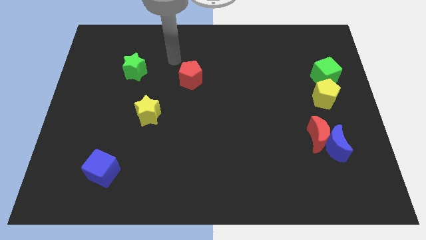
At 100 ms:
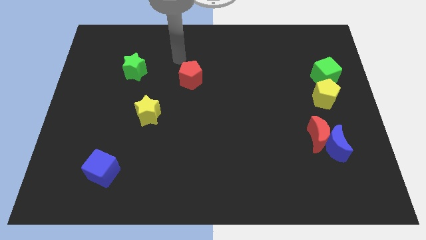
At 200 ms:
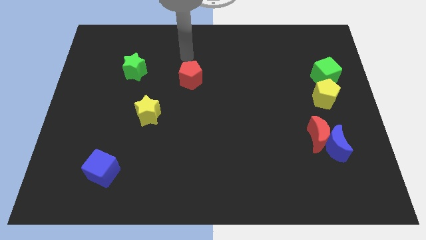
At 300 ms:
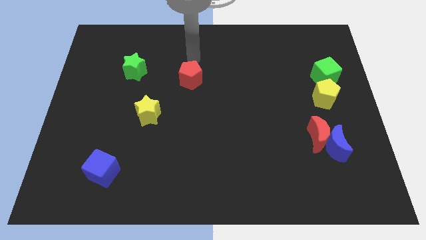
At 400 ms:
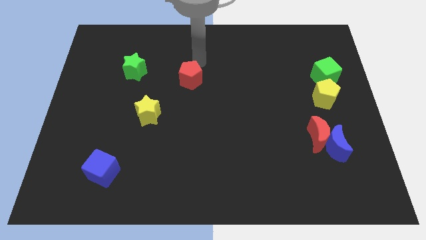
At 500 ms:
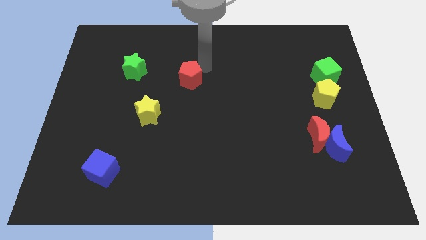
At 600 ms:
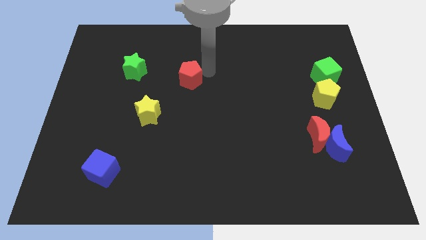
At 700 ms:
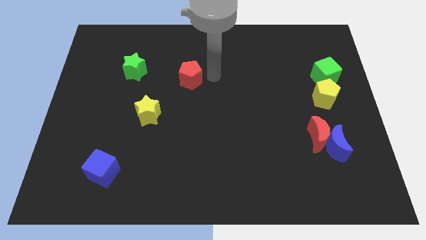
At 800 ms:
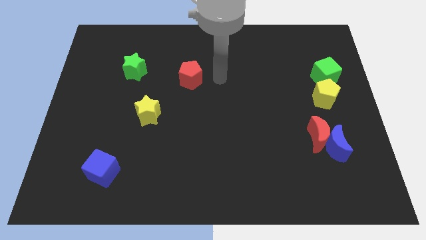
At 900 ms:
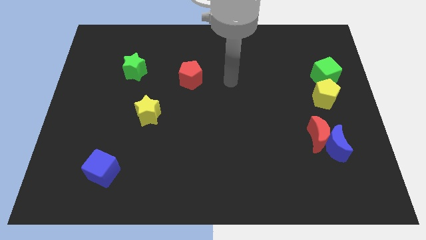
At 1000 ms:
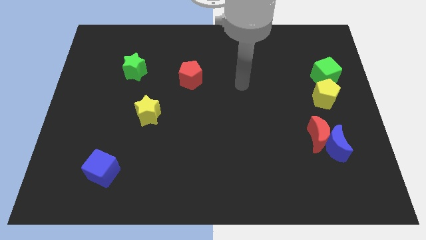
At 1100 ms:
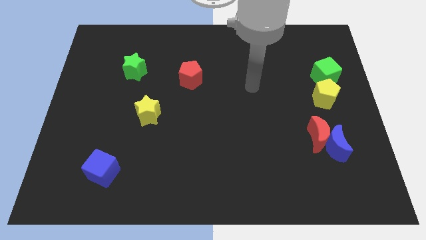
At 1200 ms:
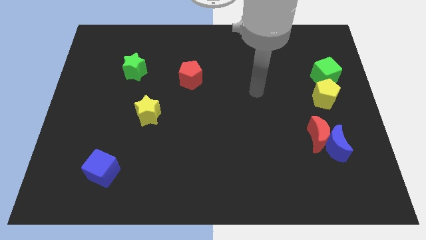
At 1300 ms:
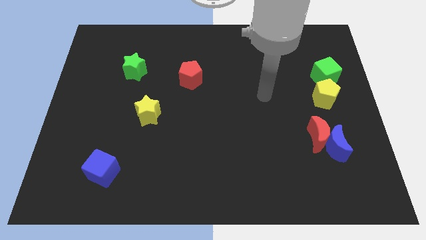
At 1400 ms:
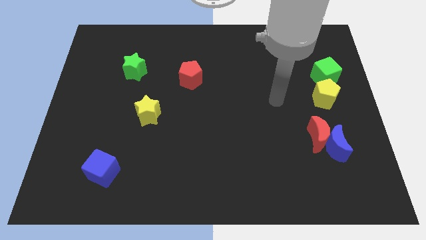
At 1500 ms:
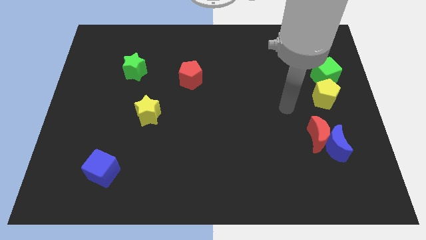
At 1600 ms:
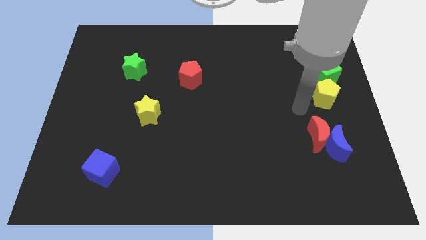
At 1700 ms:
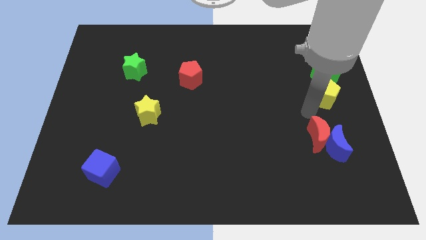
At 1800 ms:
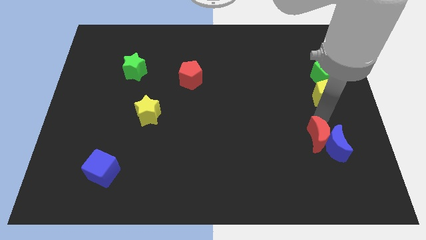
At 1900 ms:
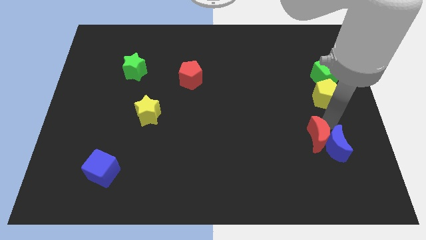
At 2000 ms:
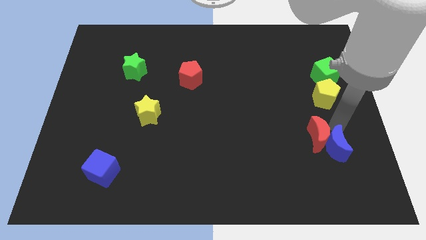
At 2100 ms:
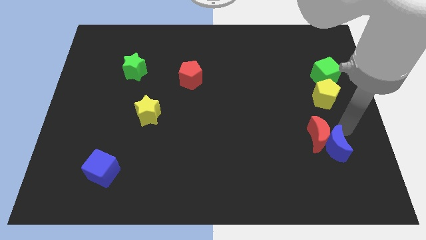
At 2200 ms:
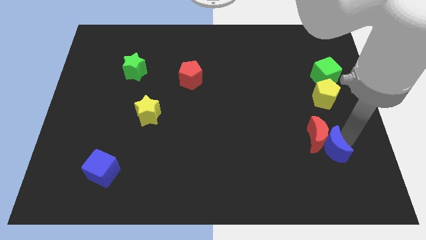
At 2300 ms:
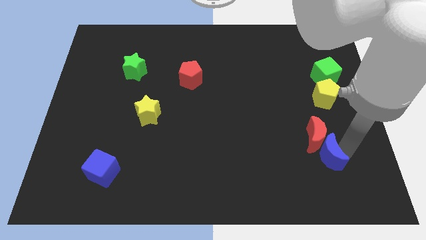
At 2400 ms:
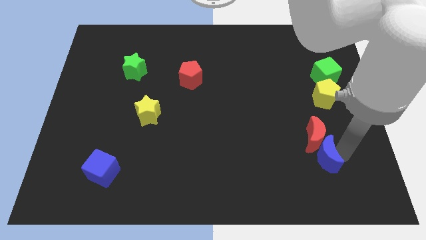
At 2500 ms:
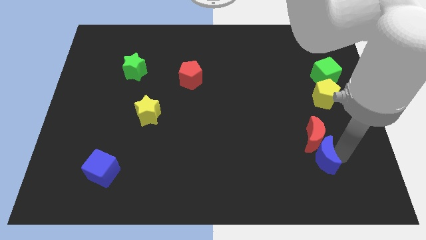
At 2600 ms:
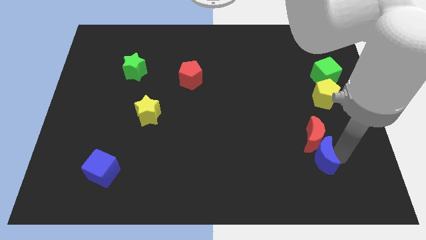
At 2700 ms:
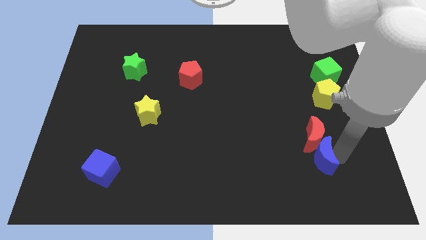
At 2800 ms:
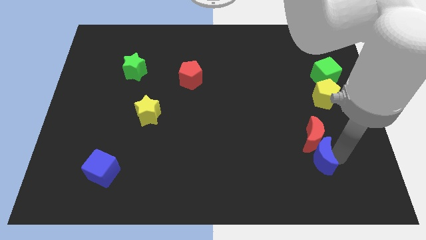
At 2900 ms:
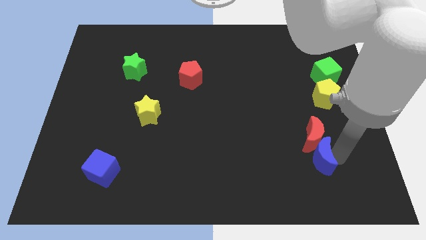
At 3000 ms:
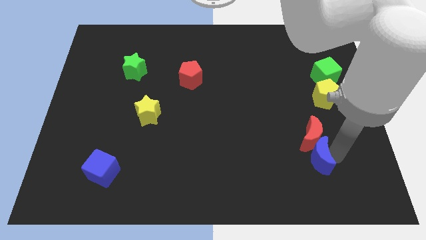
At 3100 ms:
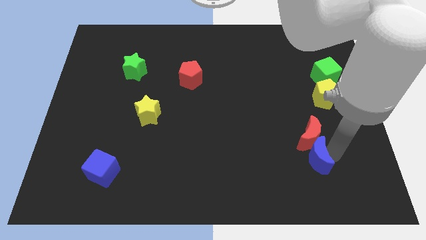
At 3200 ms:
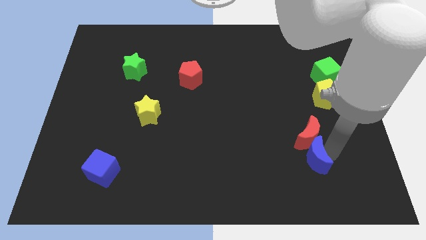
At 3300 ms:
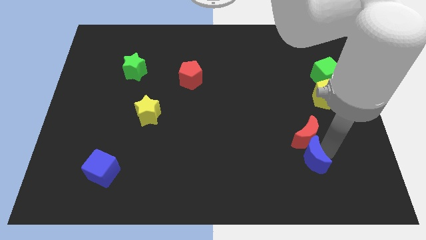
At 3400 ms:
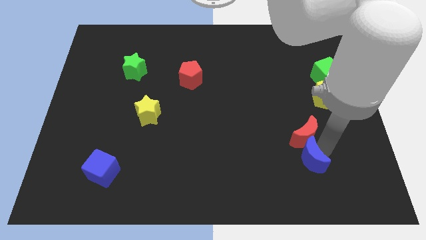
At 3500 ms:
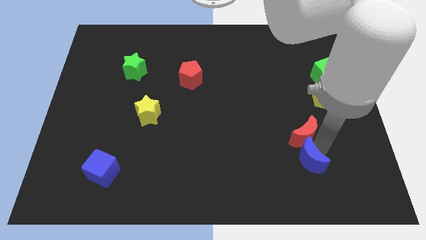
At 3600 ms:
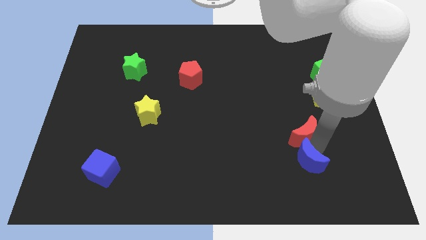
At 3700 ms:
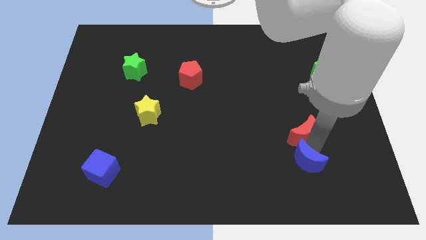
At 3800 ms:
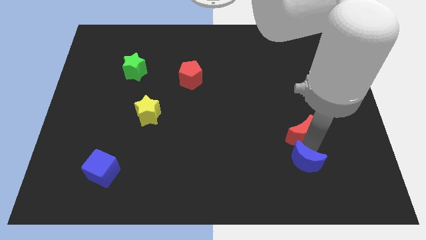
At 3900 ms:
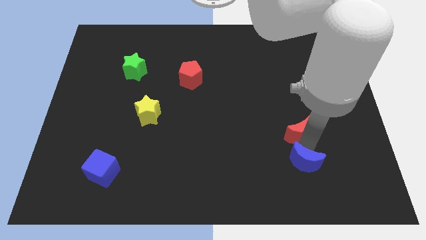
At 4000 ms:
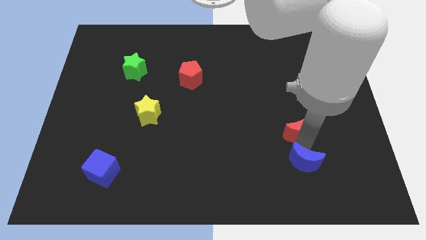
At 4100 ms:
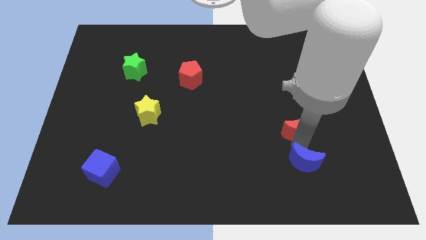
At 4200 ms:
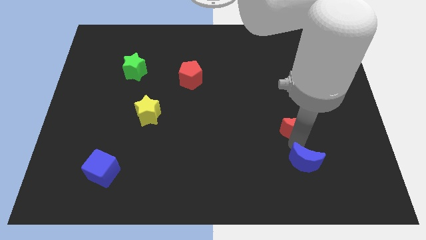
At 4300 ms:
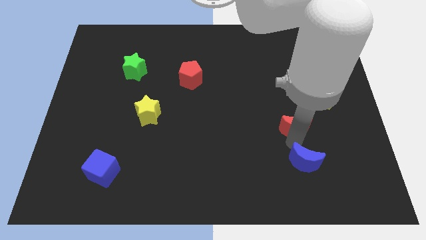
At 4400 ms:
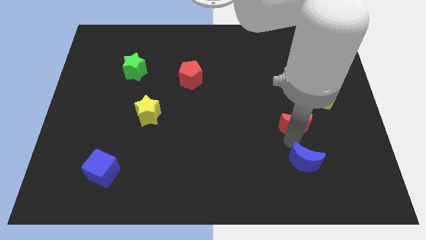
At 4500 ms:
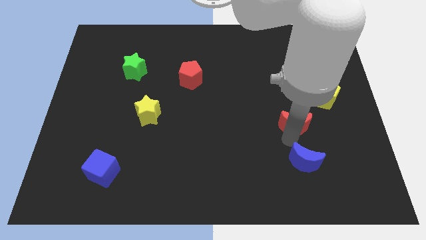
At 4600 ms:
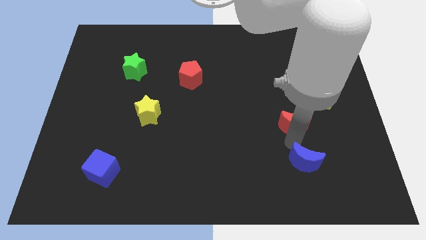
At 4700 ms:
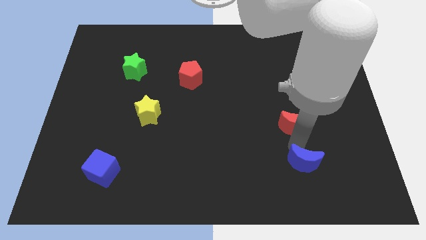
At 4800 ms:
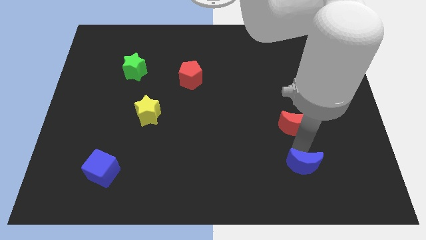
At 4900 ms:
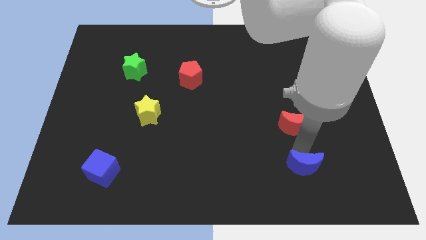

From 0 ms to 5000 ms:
pull the red moon apart from the blue moon

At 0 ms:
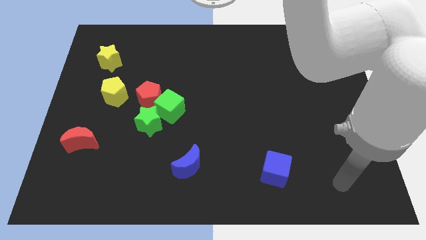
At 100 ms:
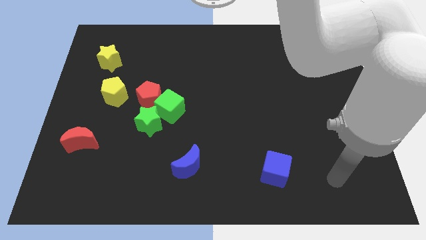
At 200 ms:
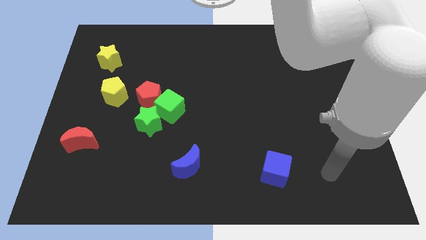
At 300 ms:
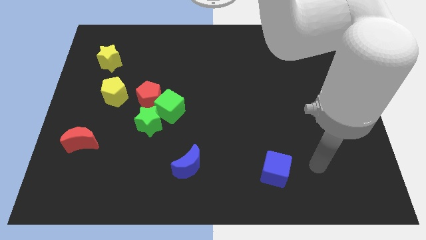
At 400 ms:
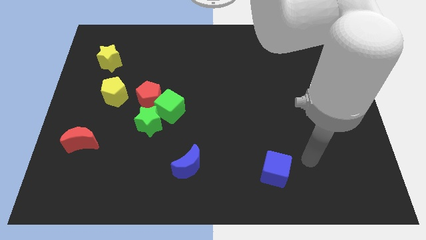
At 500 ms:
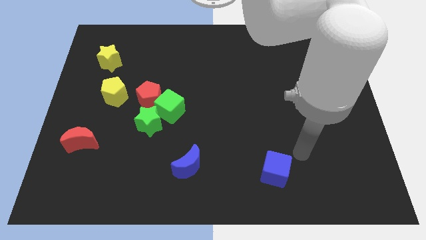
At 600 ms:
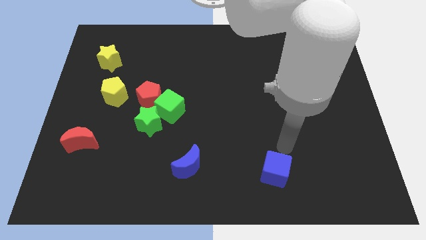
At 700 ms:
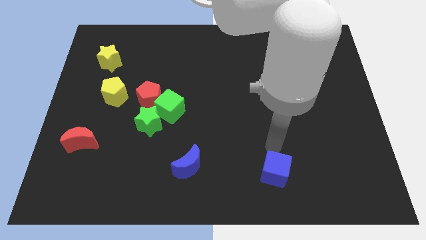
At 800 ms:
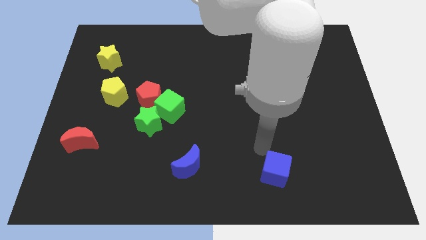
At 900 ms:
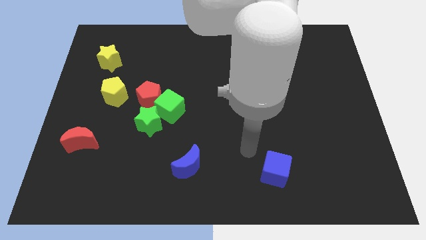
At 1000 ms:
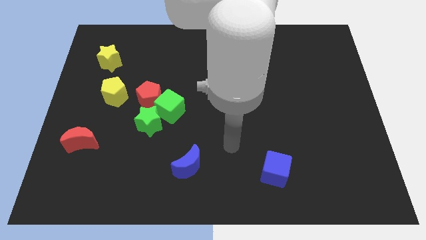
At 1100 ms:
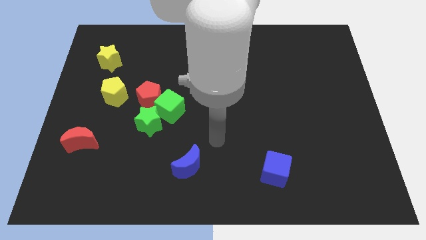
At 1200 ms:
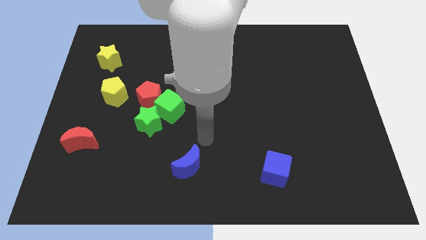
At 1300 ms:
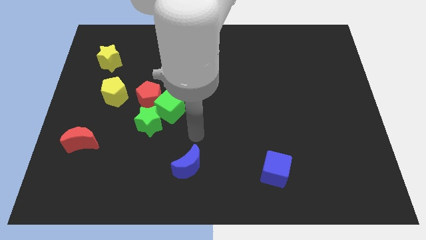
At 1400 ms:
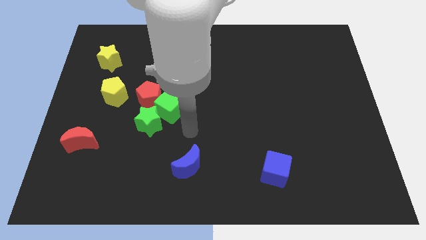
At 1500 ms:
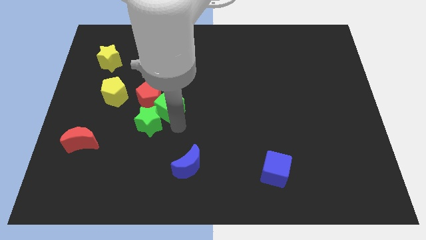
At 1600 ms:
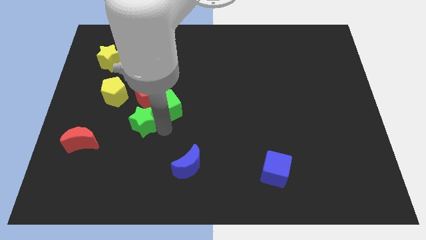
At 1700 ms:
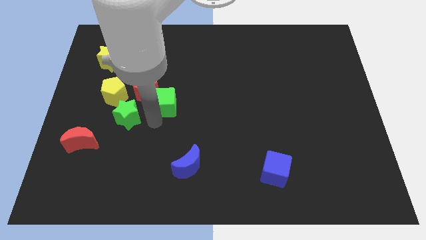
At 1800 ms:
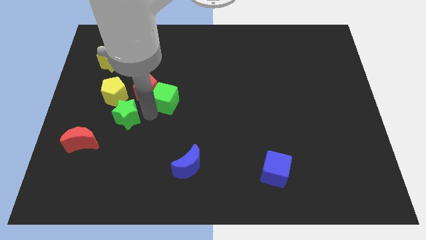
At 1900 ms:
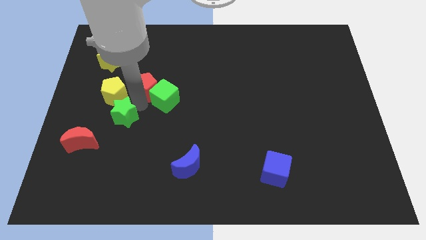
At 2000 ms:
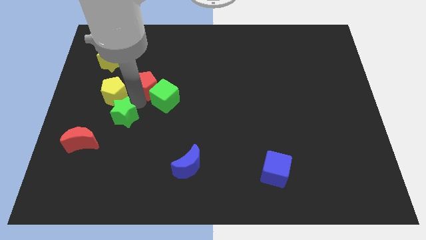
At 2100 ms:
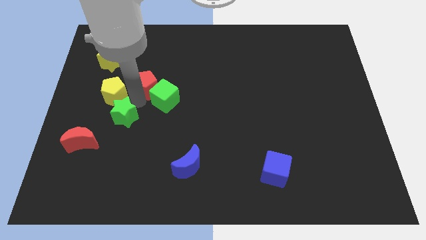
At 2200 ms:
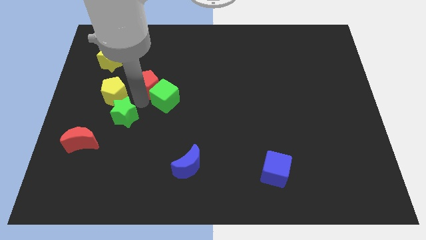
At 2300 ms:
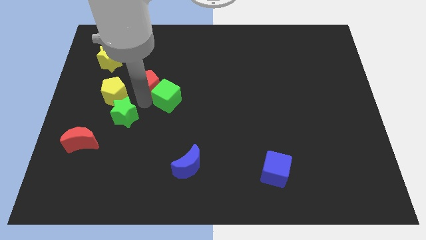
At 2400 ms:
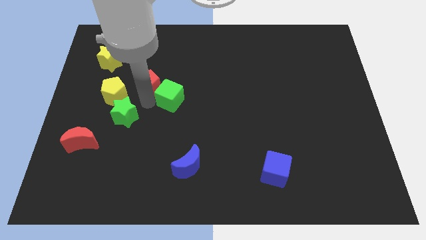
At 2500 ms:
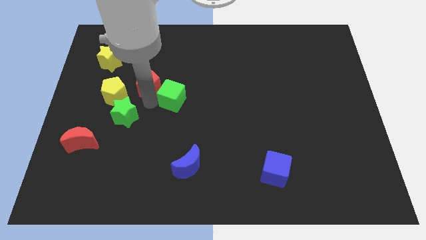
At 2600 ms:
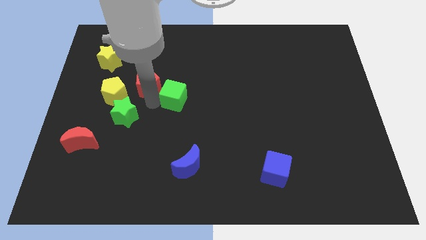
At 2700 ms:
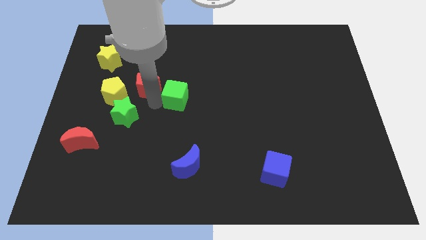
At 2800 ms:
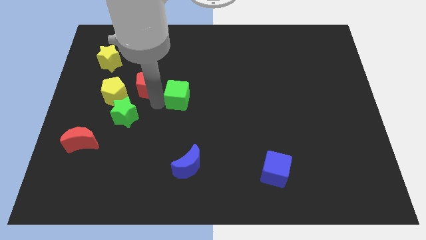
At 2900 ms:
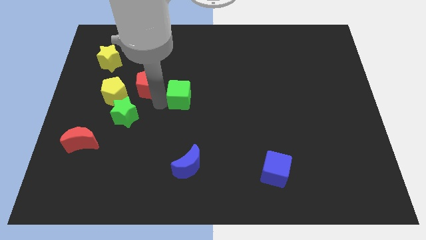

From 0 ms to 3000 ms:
move the green cube away from the red pentagon and green star

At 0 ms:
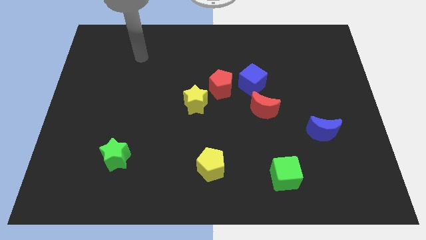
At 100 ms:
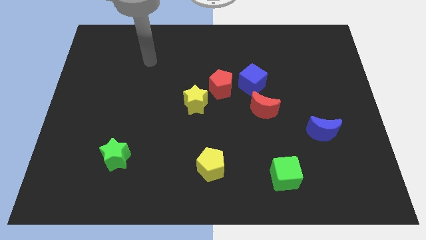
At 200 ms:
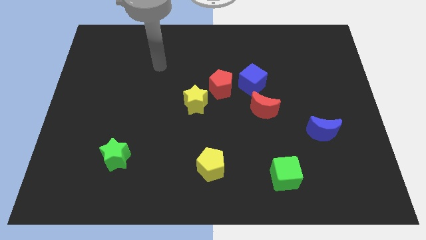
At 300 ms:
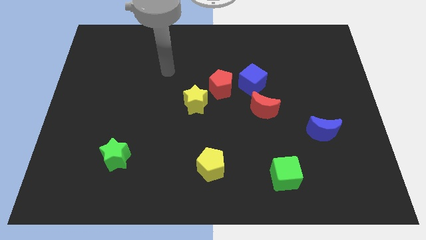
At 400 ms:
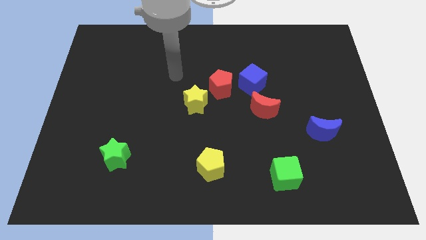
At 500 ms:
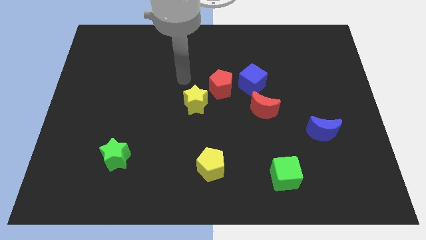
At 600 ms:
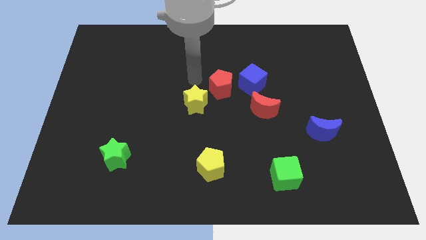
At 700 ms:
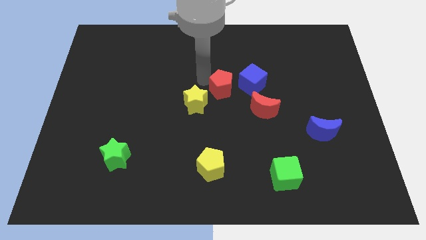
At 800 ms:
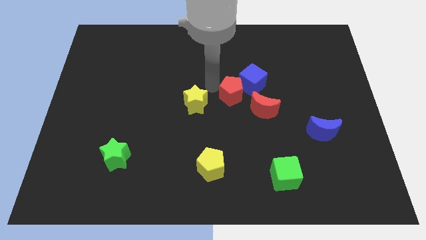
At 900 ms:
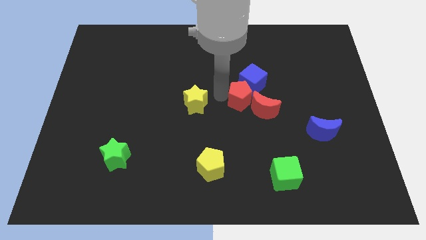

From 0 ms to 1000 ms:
separate the yellow star from the red pentagon

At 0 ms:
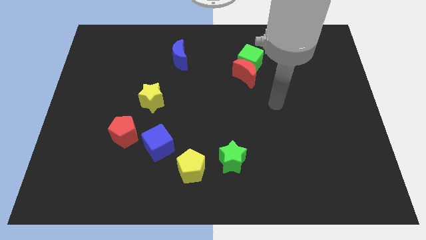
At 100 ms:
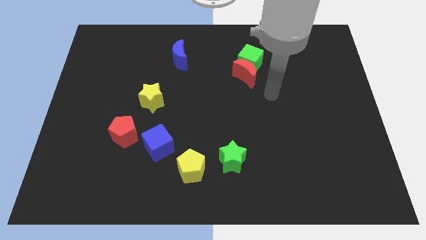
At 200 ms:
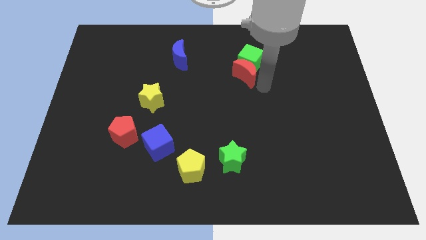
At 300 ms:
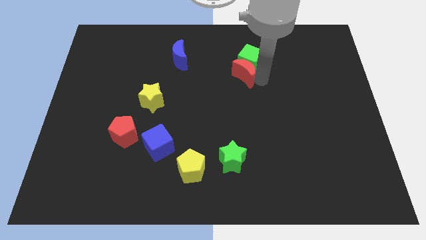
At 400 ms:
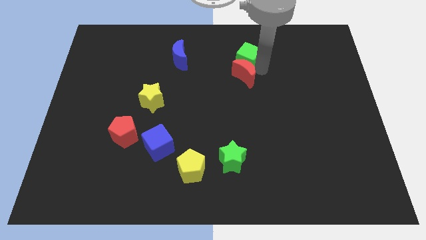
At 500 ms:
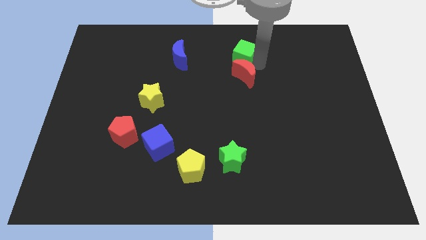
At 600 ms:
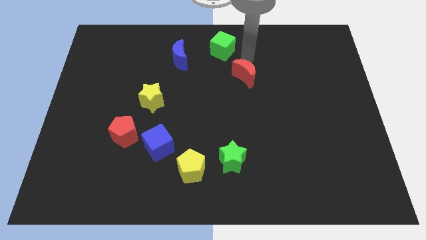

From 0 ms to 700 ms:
move the red moon away from the green cube
